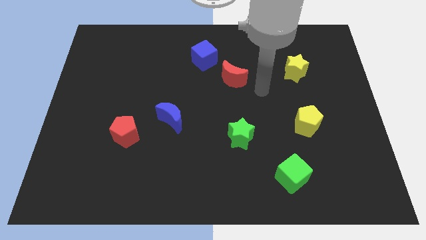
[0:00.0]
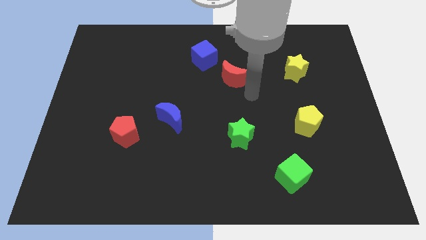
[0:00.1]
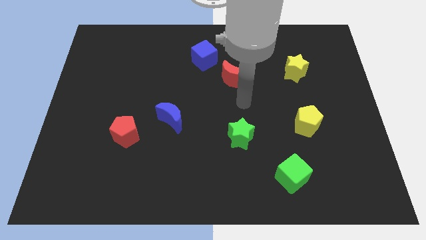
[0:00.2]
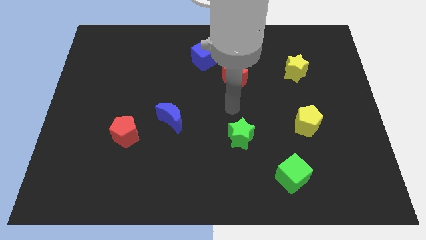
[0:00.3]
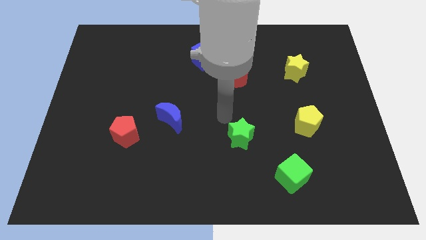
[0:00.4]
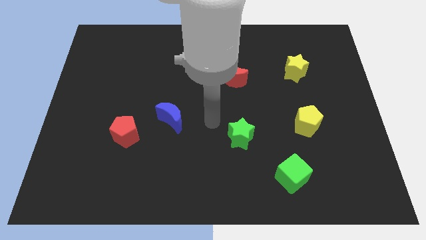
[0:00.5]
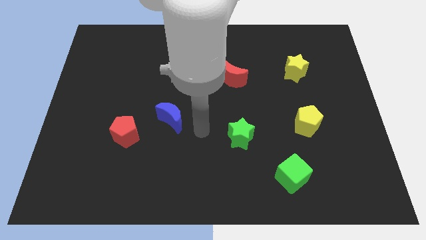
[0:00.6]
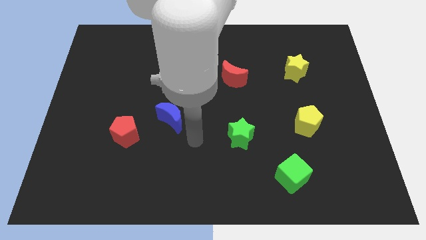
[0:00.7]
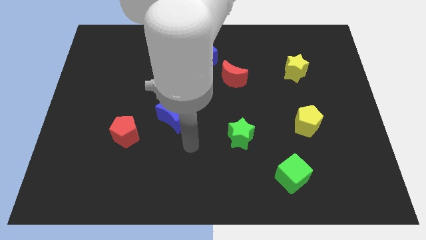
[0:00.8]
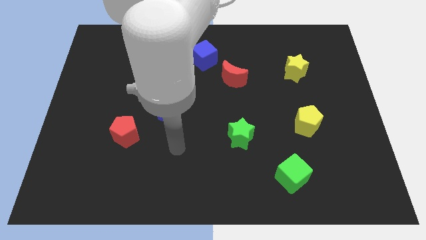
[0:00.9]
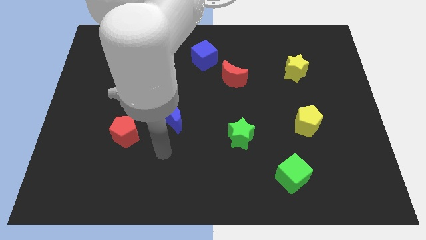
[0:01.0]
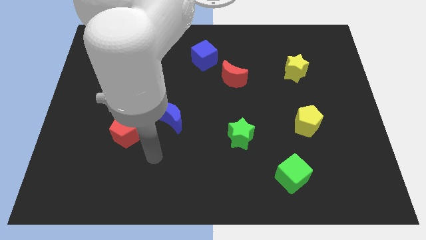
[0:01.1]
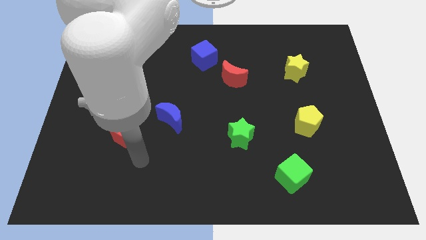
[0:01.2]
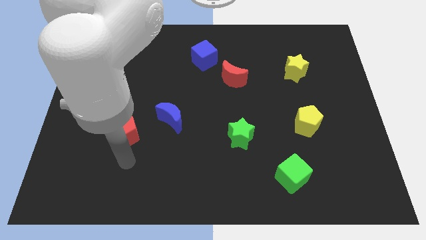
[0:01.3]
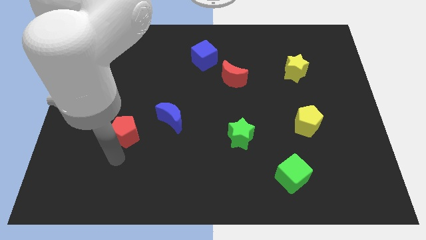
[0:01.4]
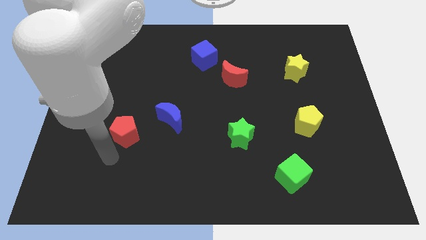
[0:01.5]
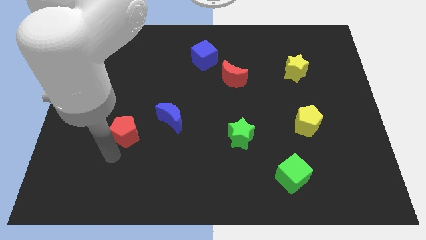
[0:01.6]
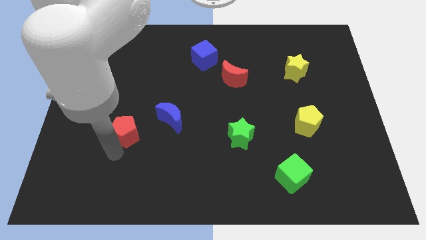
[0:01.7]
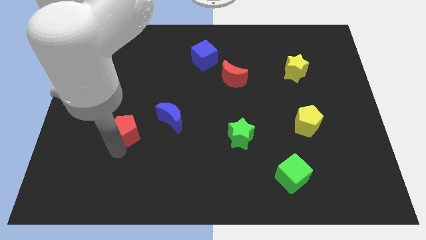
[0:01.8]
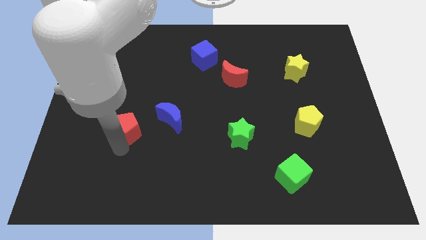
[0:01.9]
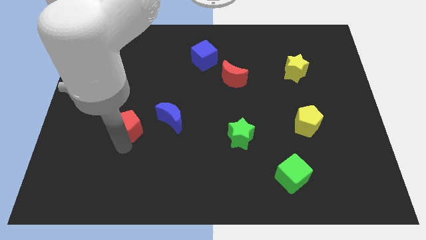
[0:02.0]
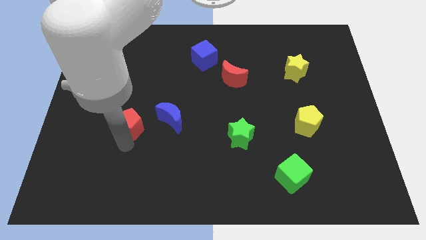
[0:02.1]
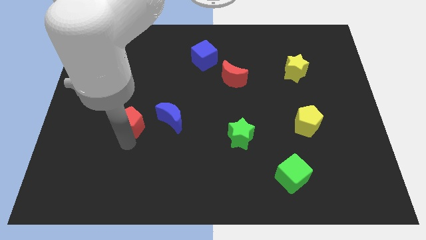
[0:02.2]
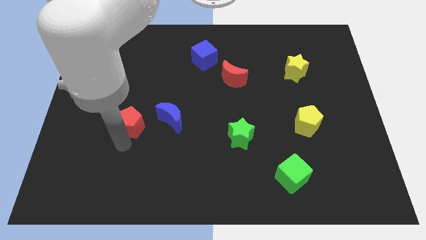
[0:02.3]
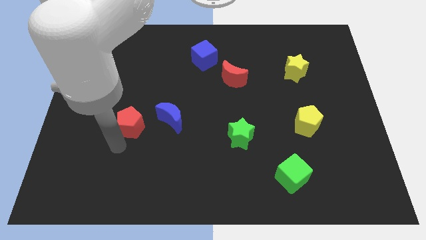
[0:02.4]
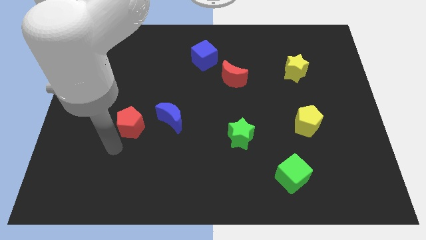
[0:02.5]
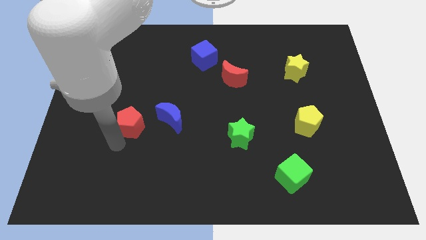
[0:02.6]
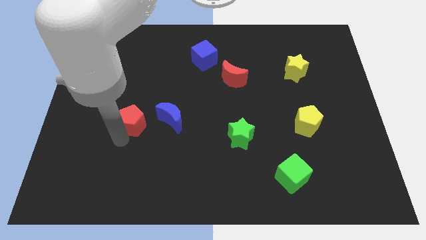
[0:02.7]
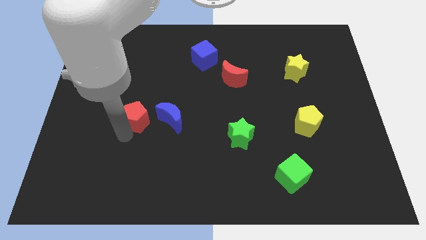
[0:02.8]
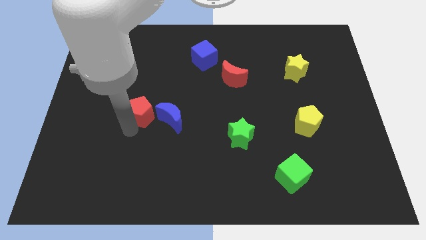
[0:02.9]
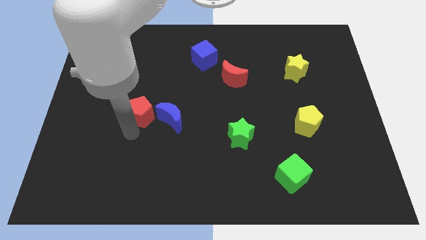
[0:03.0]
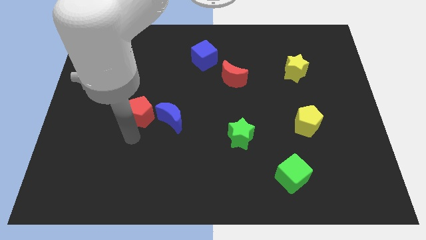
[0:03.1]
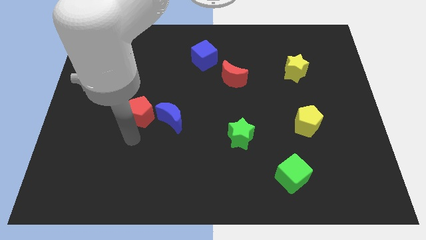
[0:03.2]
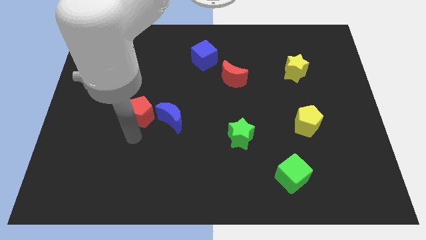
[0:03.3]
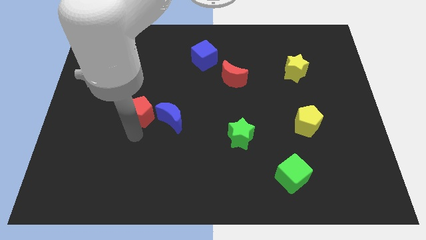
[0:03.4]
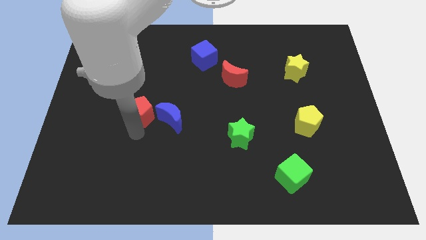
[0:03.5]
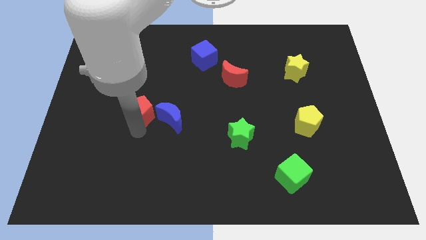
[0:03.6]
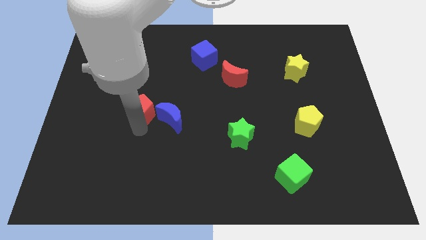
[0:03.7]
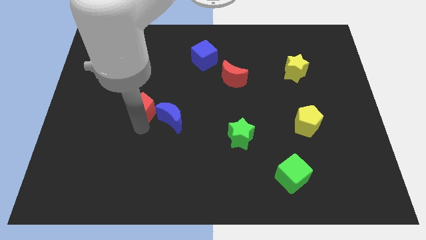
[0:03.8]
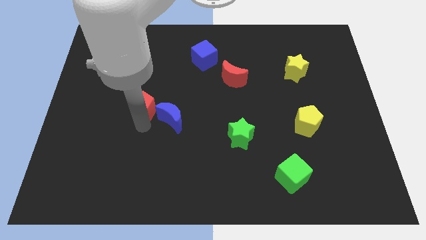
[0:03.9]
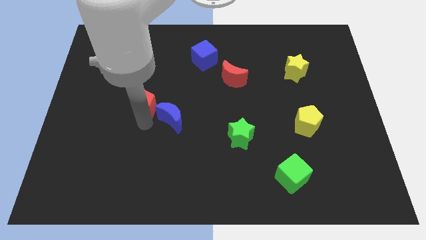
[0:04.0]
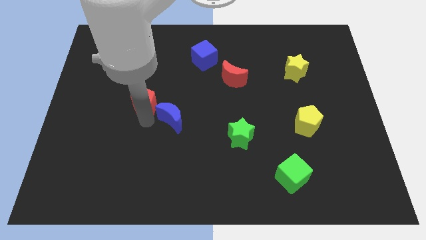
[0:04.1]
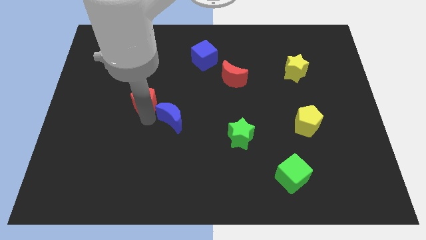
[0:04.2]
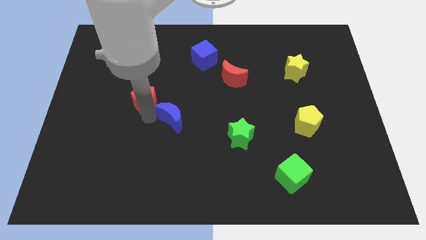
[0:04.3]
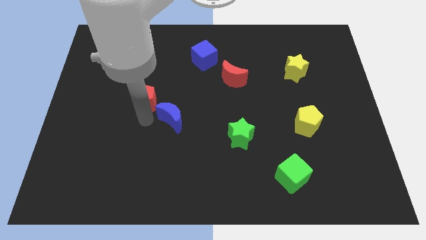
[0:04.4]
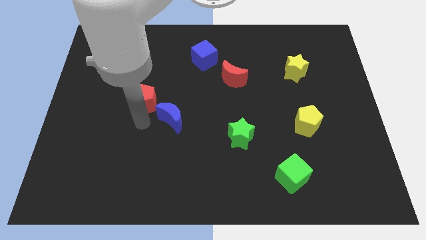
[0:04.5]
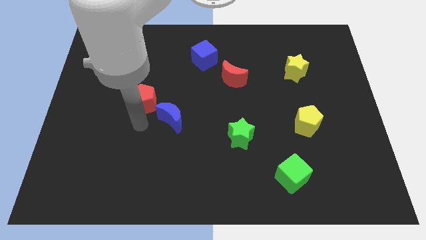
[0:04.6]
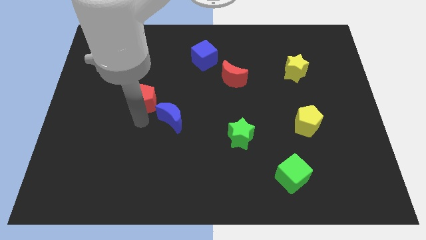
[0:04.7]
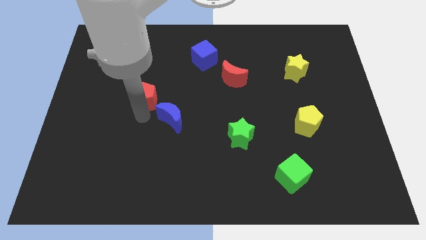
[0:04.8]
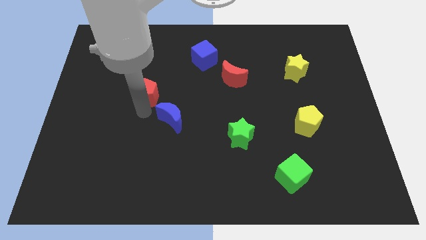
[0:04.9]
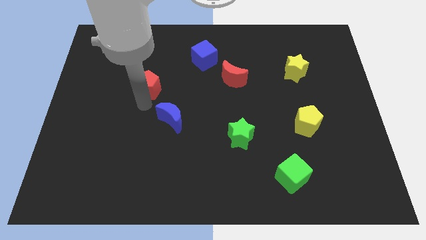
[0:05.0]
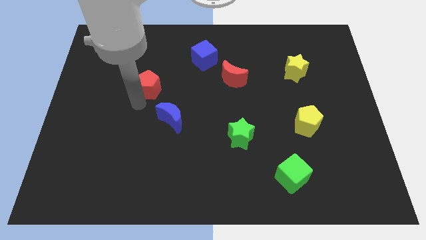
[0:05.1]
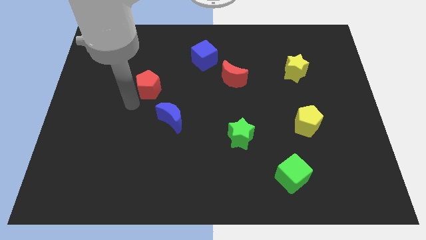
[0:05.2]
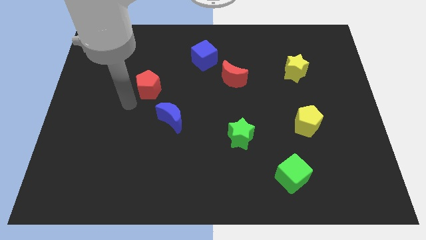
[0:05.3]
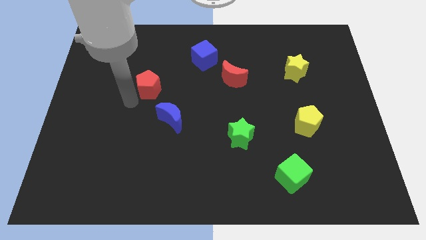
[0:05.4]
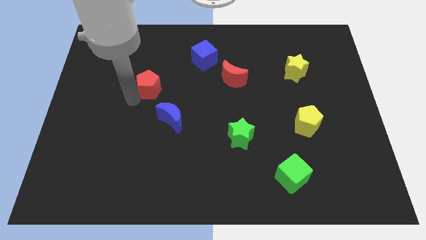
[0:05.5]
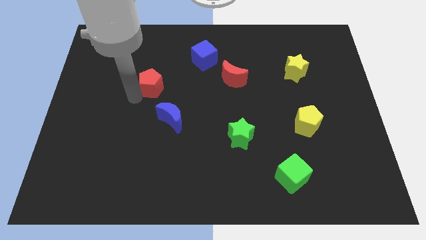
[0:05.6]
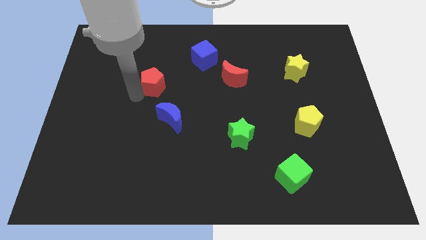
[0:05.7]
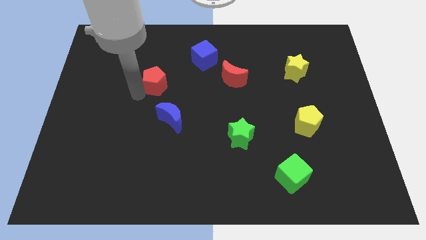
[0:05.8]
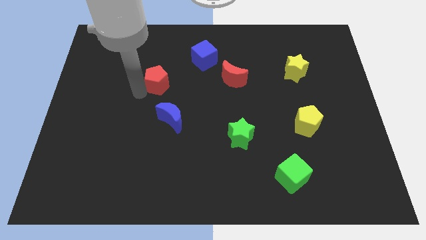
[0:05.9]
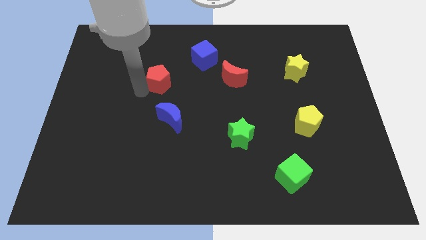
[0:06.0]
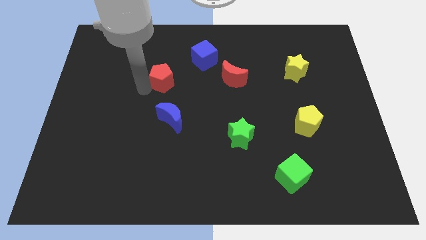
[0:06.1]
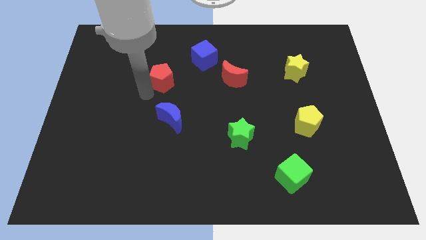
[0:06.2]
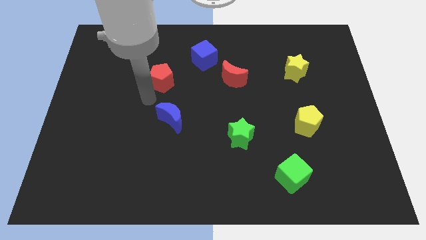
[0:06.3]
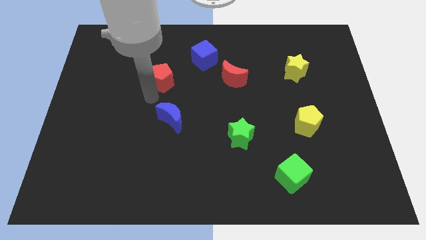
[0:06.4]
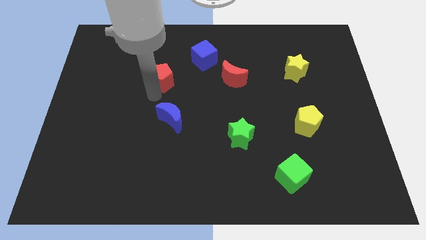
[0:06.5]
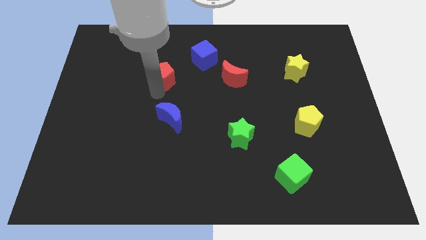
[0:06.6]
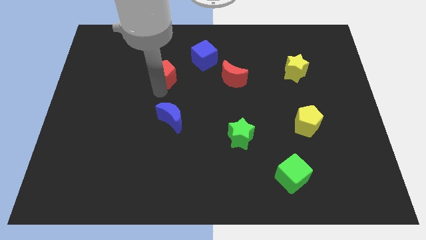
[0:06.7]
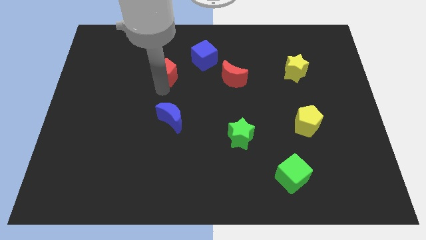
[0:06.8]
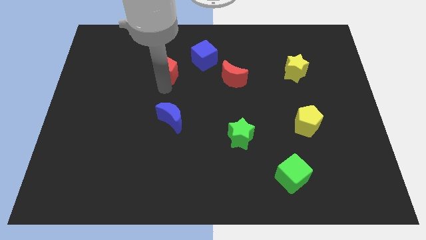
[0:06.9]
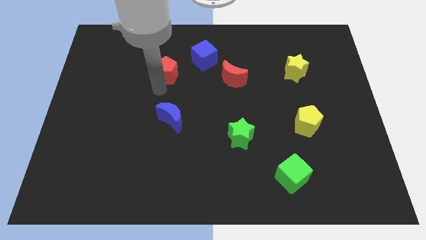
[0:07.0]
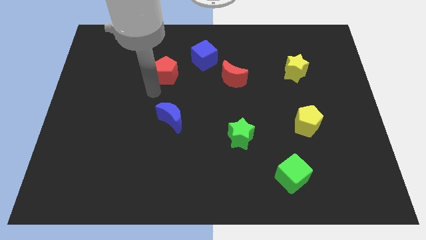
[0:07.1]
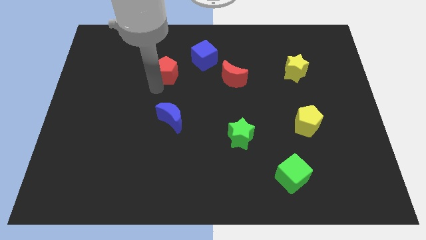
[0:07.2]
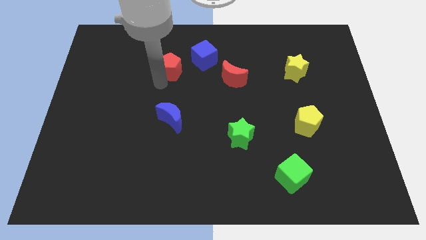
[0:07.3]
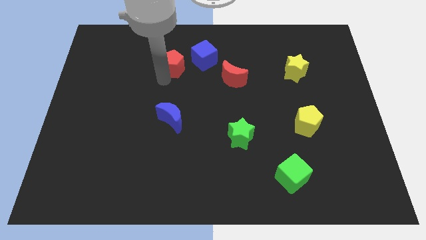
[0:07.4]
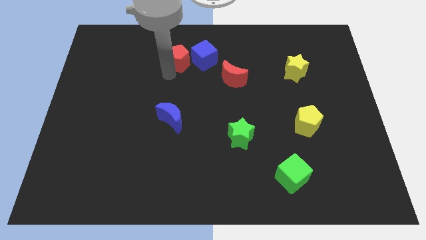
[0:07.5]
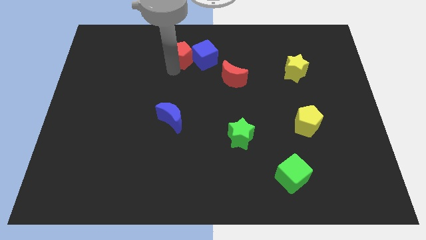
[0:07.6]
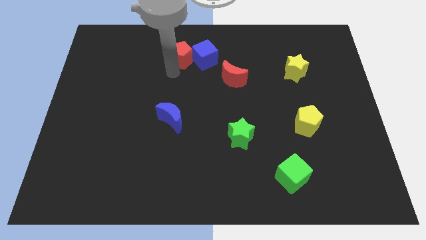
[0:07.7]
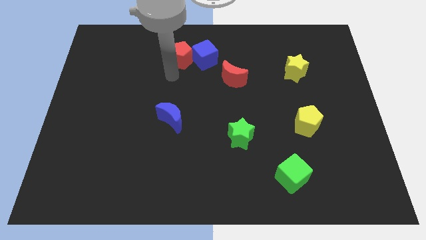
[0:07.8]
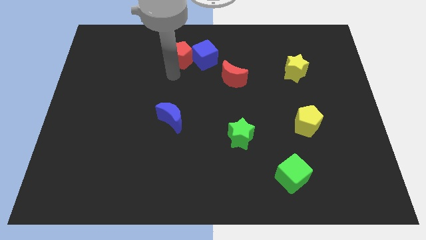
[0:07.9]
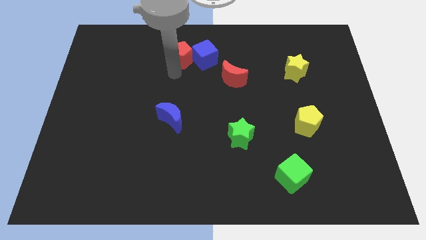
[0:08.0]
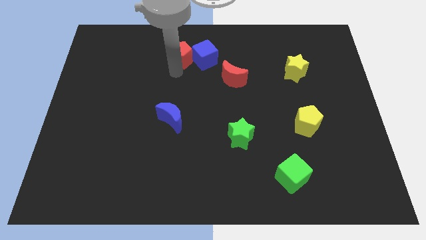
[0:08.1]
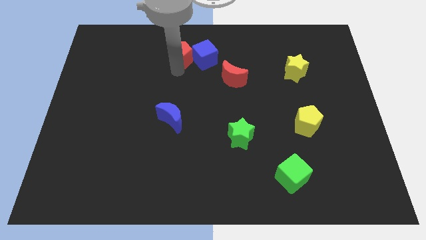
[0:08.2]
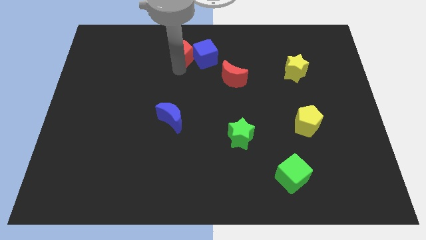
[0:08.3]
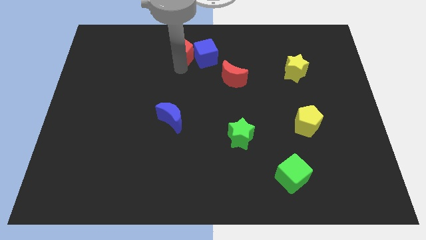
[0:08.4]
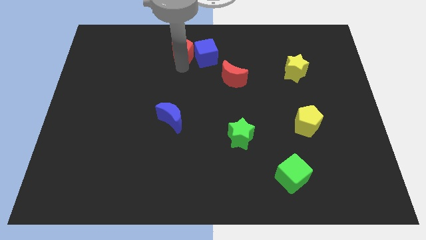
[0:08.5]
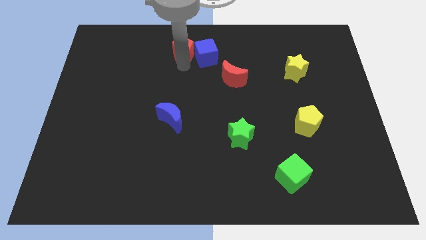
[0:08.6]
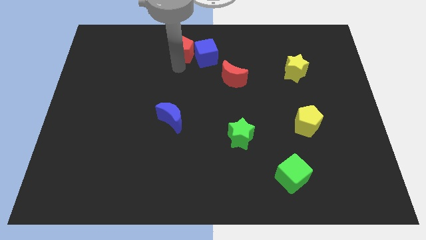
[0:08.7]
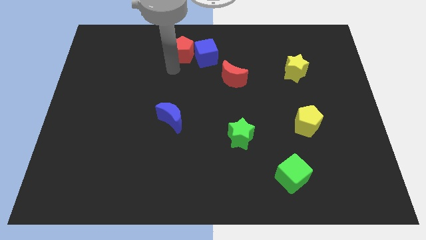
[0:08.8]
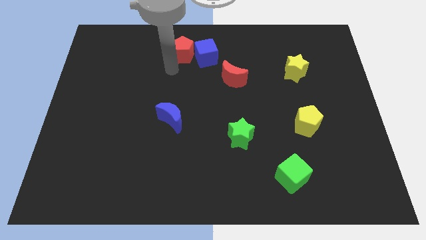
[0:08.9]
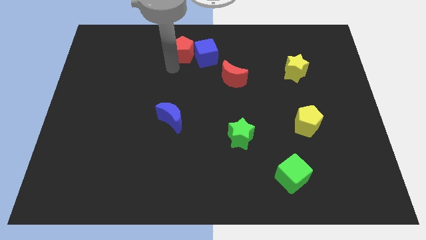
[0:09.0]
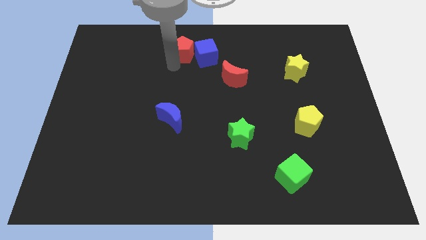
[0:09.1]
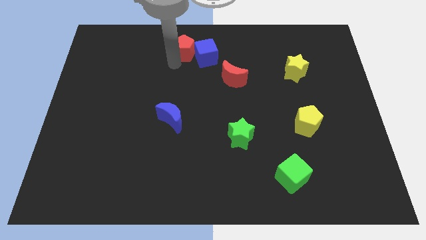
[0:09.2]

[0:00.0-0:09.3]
push the red pentagon to the top side
